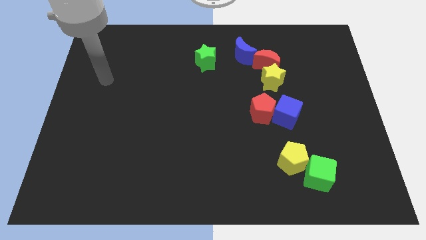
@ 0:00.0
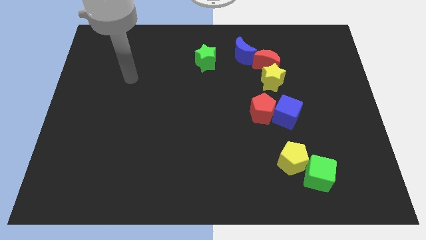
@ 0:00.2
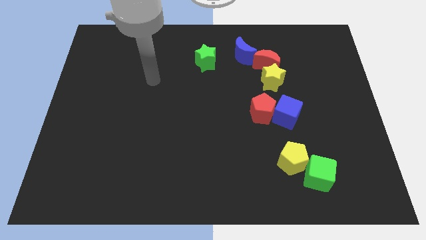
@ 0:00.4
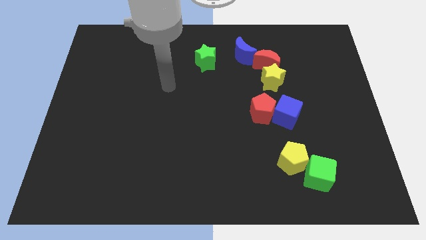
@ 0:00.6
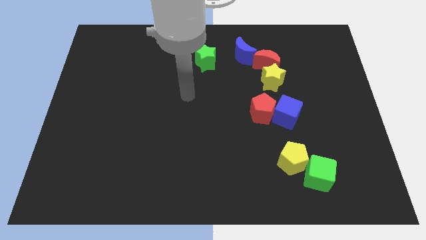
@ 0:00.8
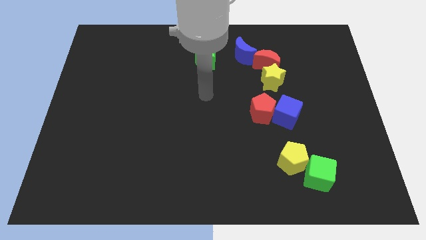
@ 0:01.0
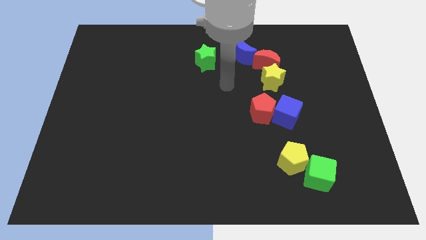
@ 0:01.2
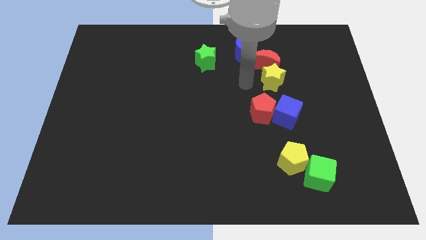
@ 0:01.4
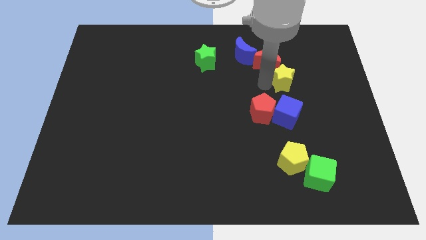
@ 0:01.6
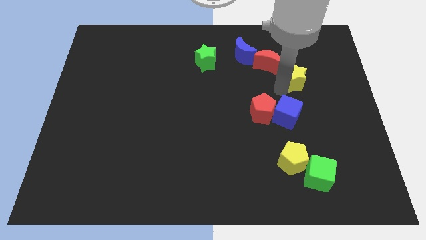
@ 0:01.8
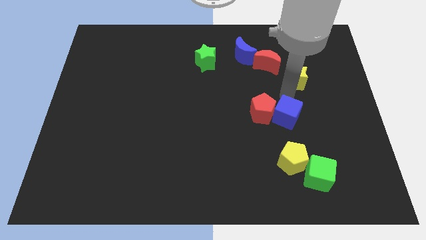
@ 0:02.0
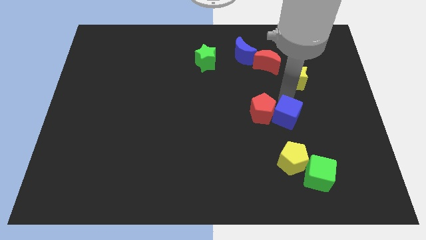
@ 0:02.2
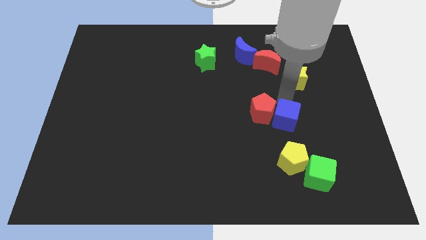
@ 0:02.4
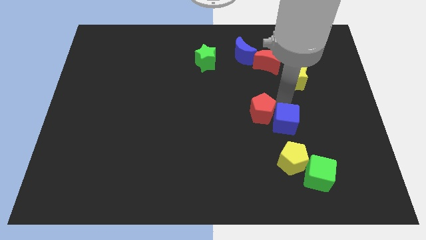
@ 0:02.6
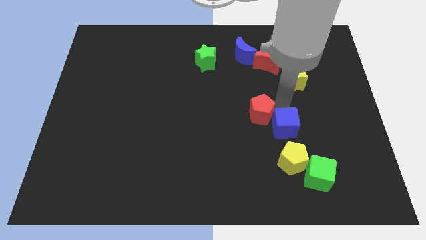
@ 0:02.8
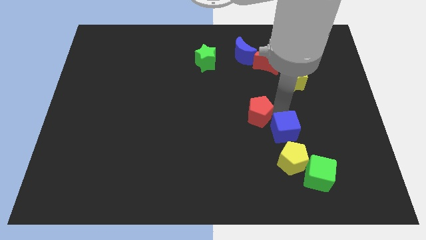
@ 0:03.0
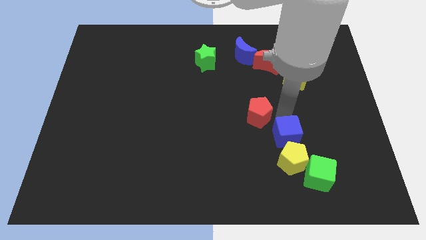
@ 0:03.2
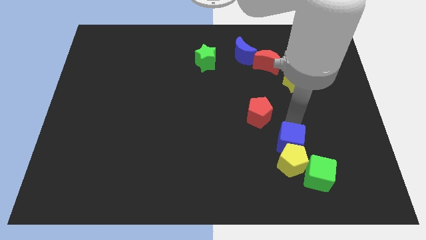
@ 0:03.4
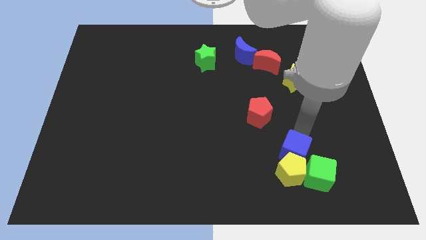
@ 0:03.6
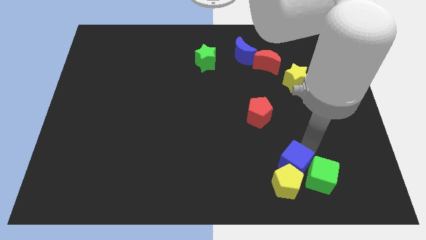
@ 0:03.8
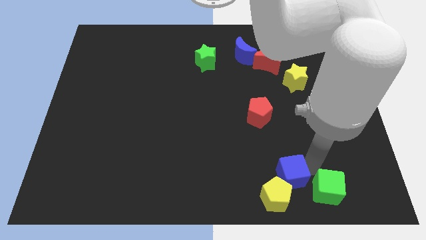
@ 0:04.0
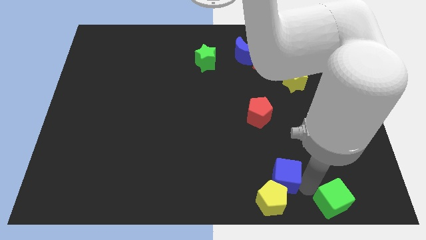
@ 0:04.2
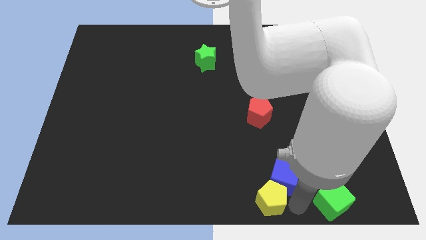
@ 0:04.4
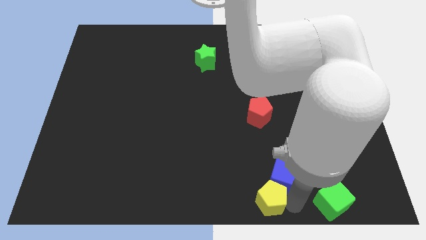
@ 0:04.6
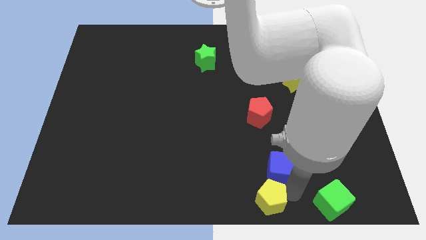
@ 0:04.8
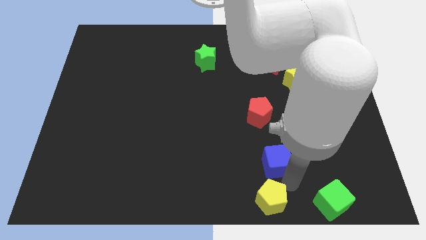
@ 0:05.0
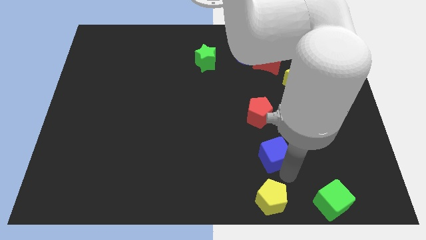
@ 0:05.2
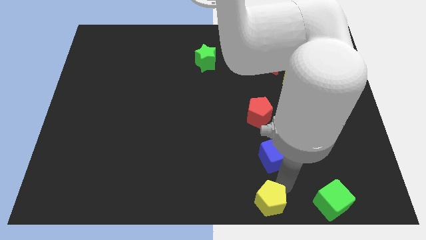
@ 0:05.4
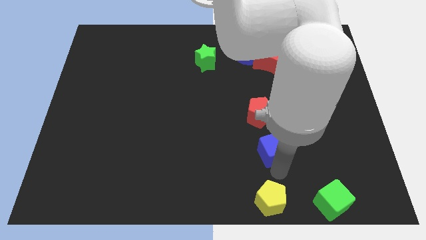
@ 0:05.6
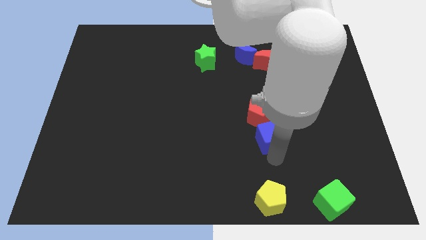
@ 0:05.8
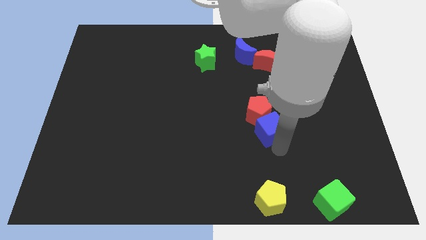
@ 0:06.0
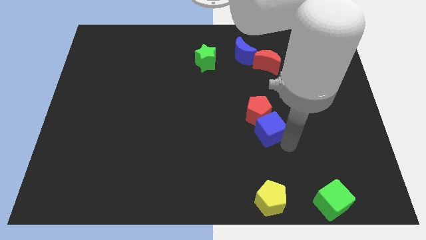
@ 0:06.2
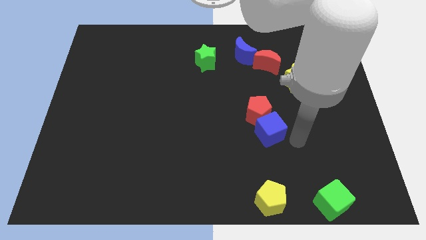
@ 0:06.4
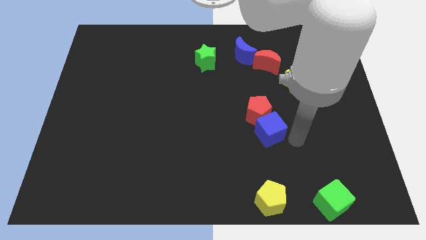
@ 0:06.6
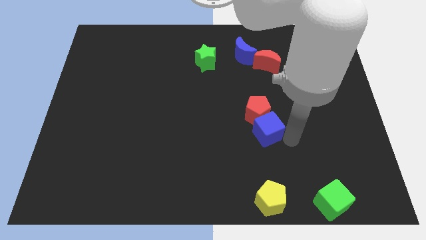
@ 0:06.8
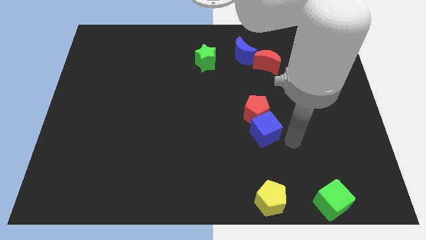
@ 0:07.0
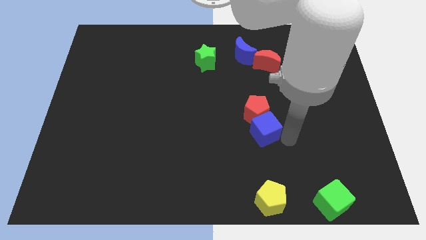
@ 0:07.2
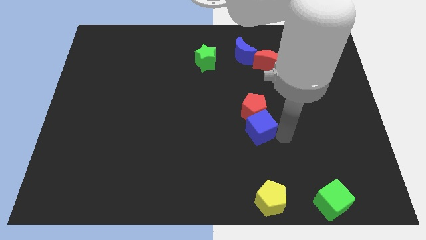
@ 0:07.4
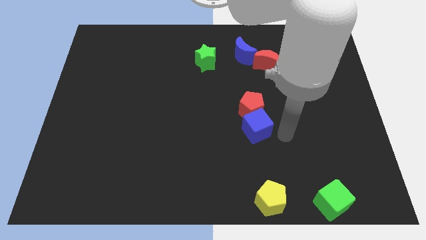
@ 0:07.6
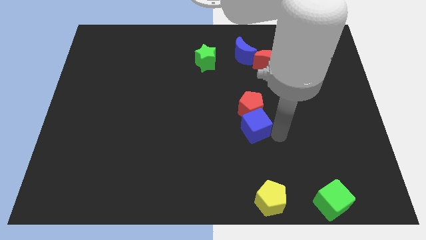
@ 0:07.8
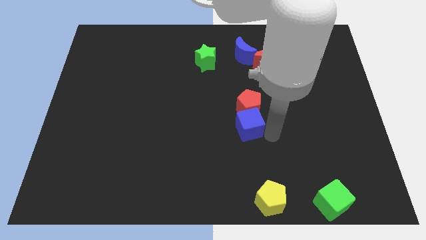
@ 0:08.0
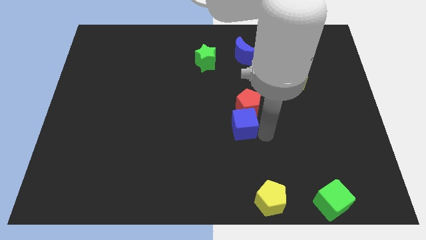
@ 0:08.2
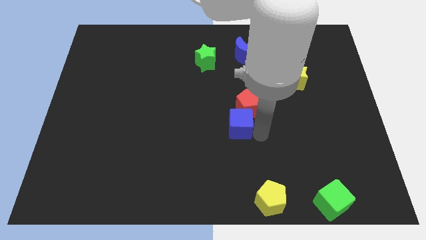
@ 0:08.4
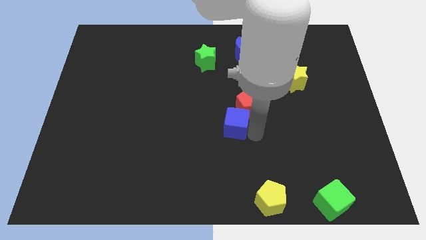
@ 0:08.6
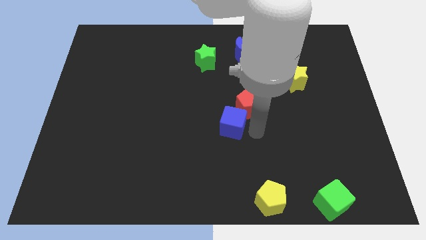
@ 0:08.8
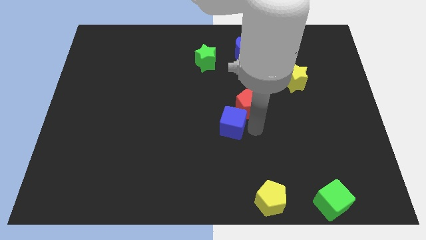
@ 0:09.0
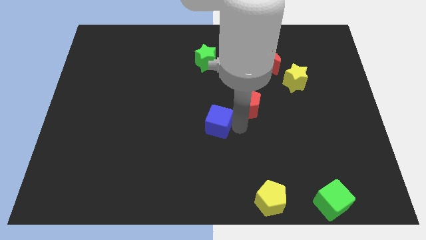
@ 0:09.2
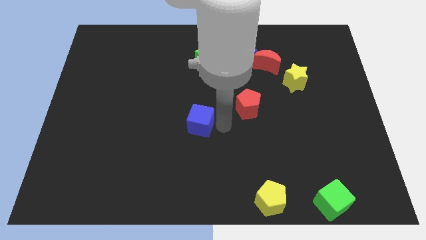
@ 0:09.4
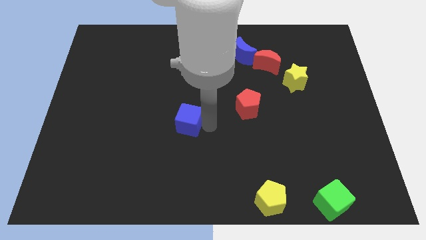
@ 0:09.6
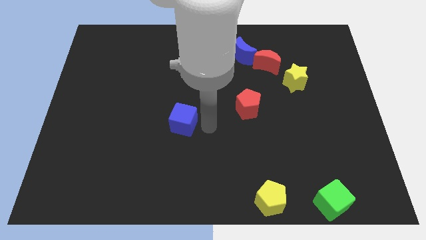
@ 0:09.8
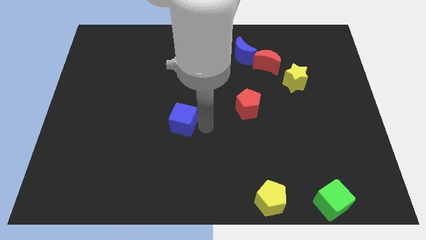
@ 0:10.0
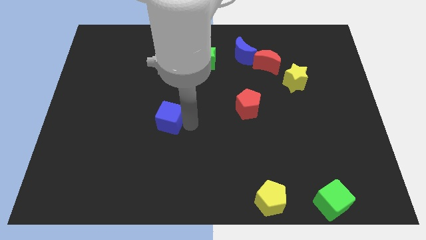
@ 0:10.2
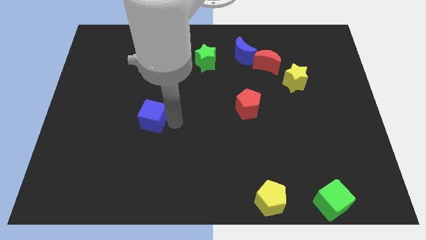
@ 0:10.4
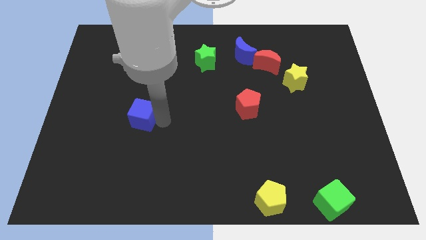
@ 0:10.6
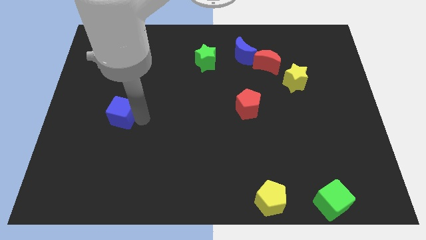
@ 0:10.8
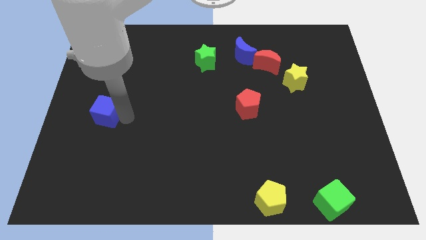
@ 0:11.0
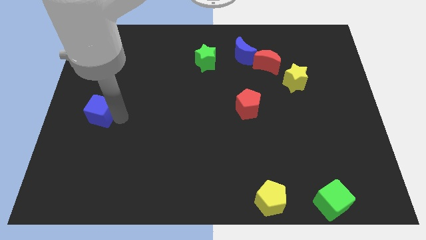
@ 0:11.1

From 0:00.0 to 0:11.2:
put the blue cube to the left side of the board
